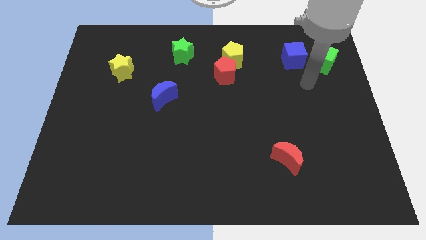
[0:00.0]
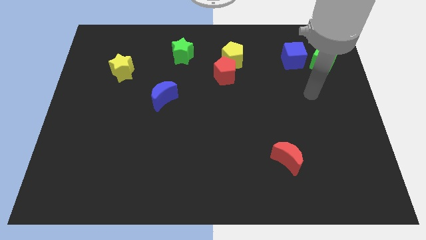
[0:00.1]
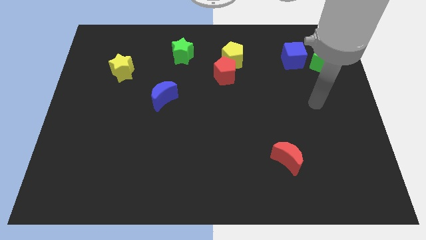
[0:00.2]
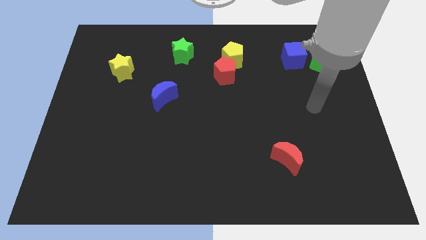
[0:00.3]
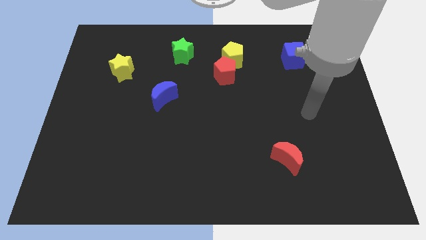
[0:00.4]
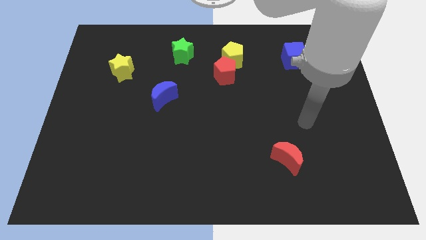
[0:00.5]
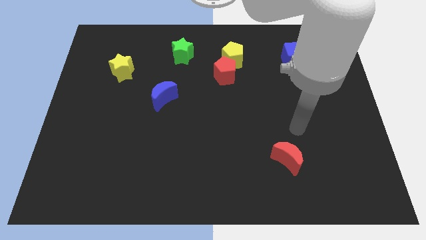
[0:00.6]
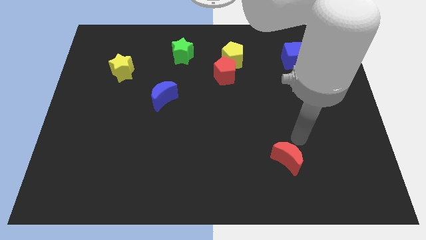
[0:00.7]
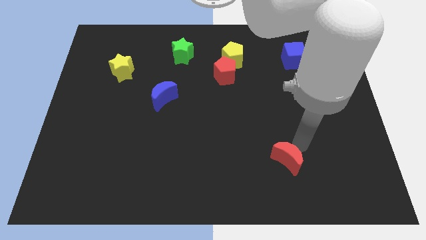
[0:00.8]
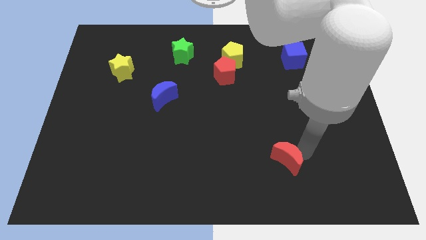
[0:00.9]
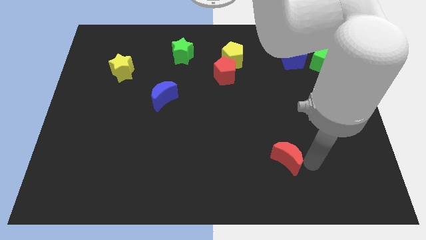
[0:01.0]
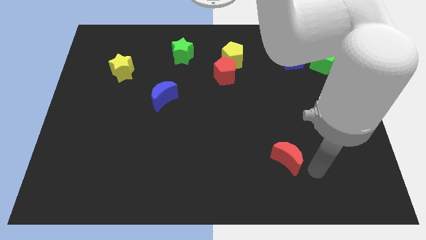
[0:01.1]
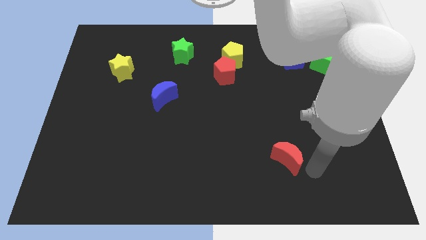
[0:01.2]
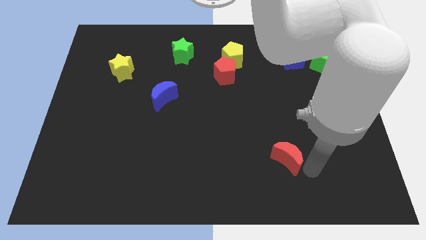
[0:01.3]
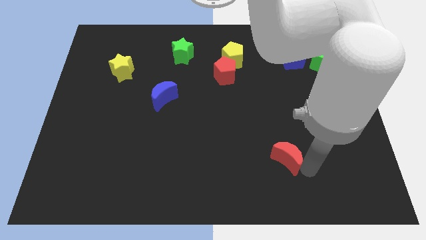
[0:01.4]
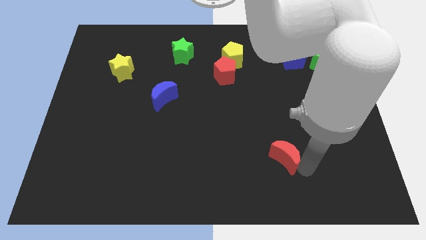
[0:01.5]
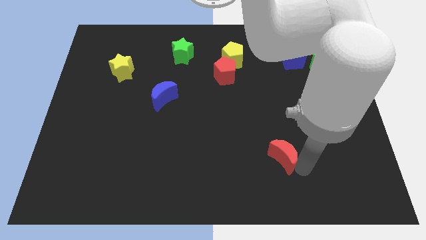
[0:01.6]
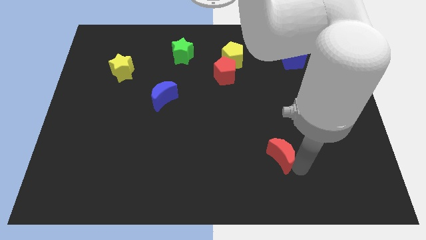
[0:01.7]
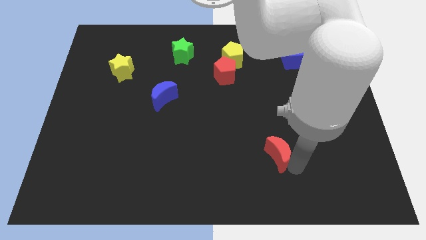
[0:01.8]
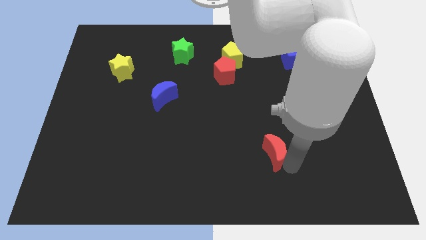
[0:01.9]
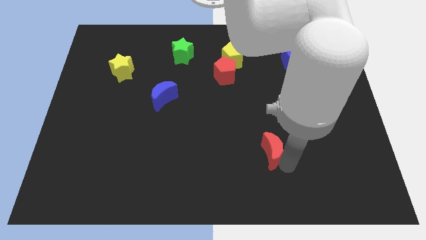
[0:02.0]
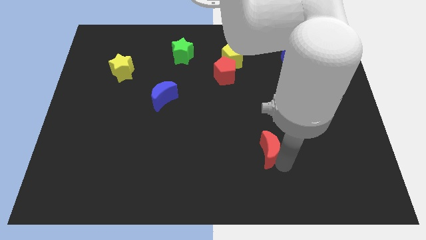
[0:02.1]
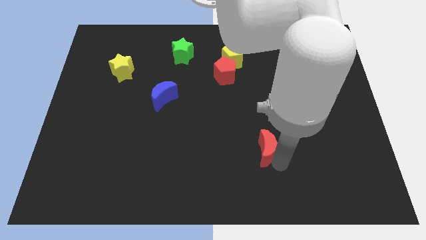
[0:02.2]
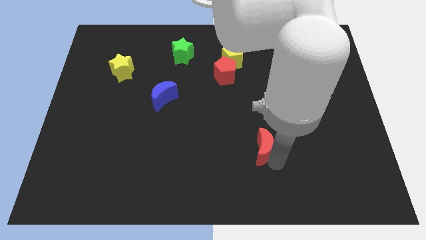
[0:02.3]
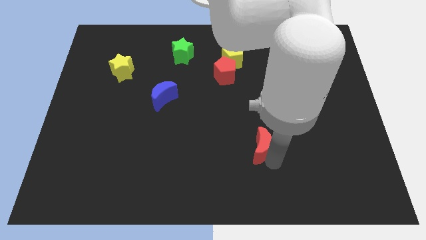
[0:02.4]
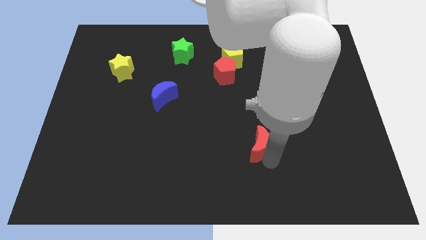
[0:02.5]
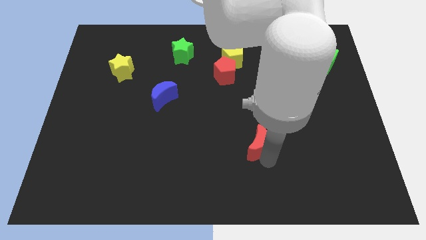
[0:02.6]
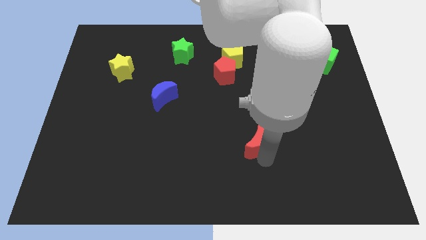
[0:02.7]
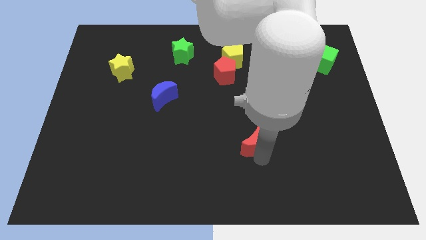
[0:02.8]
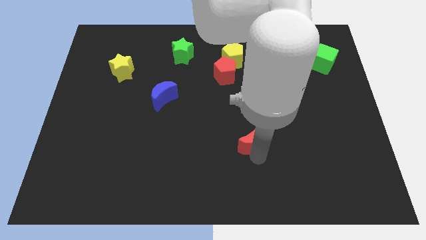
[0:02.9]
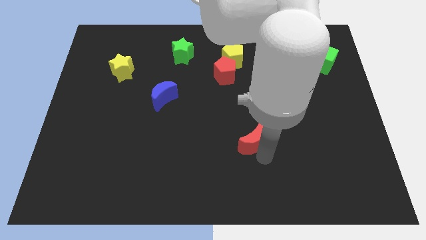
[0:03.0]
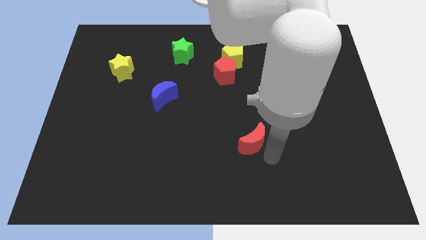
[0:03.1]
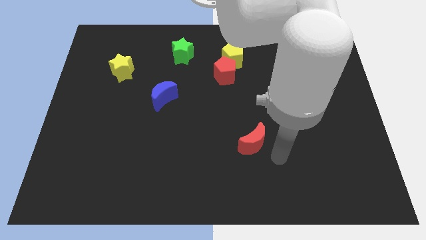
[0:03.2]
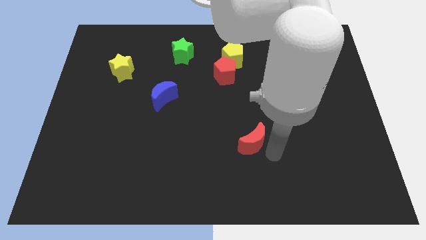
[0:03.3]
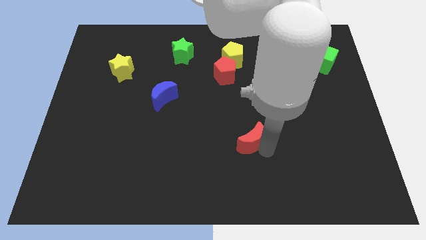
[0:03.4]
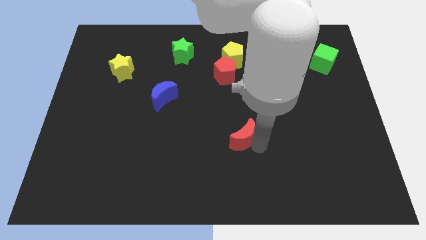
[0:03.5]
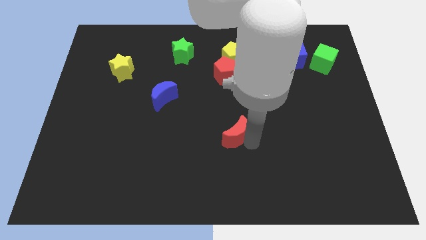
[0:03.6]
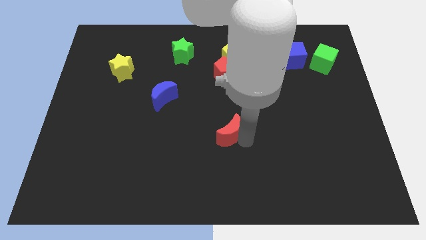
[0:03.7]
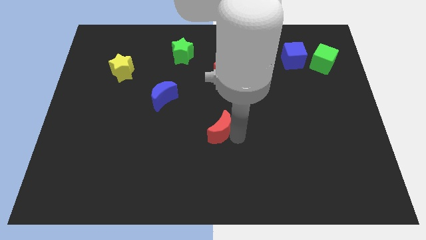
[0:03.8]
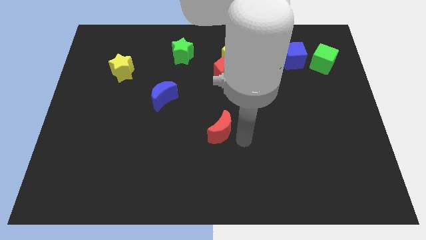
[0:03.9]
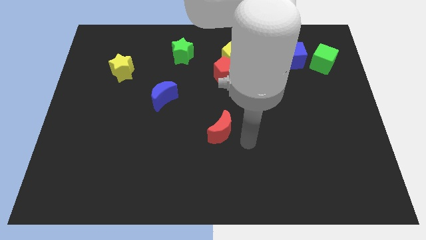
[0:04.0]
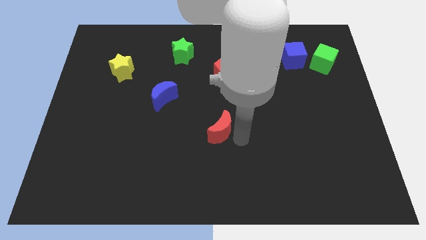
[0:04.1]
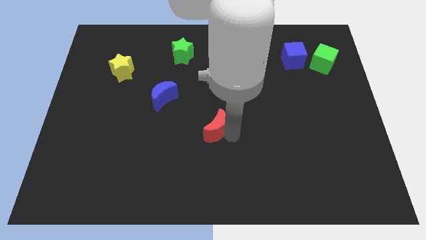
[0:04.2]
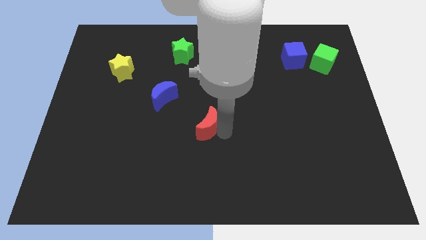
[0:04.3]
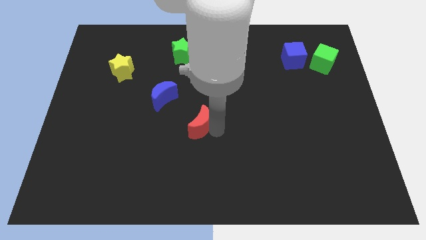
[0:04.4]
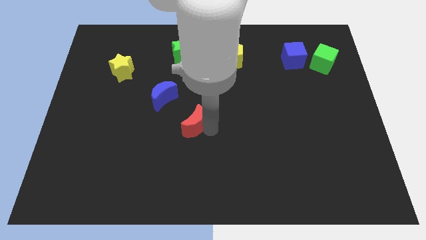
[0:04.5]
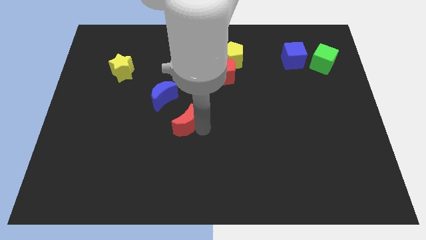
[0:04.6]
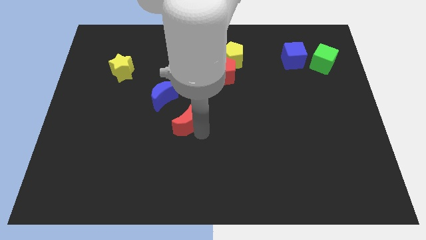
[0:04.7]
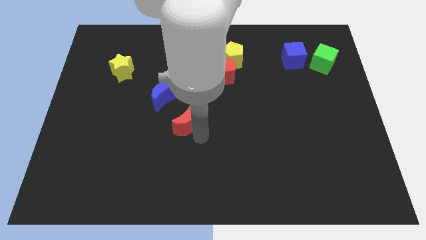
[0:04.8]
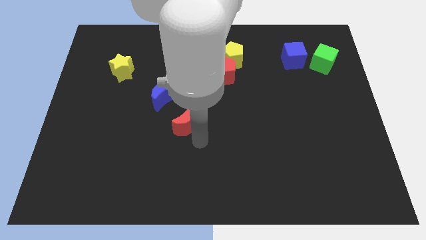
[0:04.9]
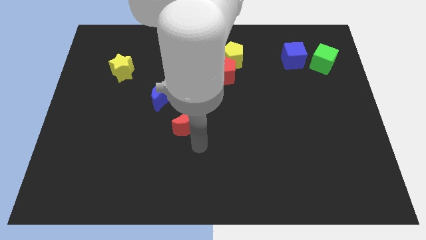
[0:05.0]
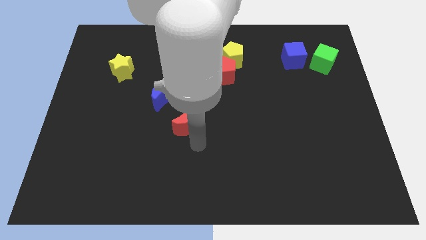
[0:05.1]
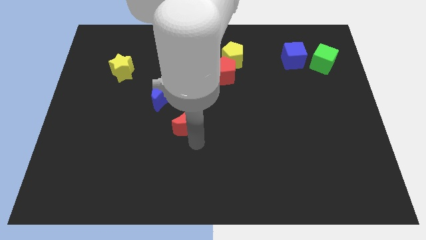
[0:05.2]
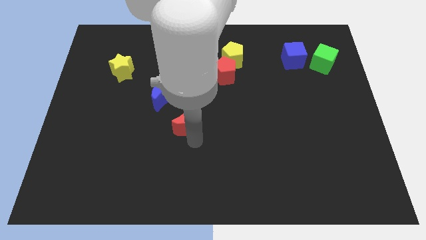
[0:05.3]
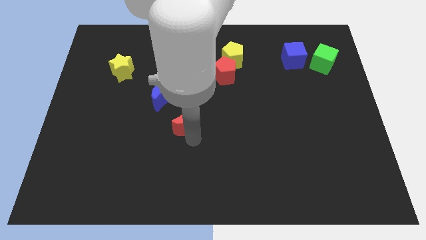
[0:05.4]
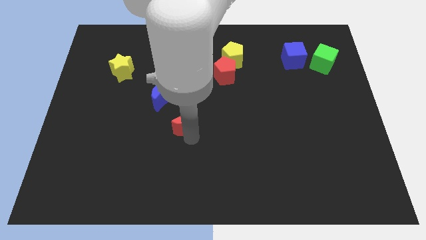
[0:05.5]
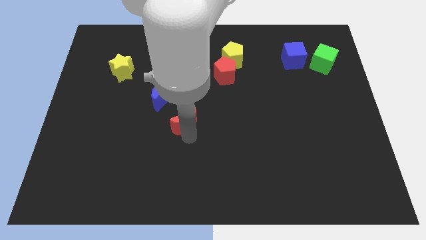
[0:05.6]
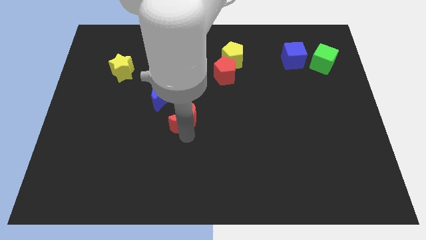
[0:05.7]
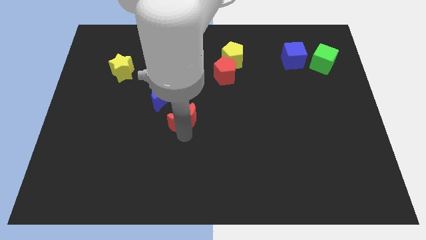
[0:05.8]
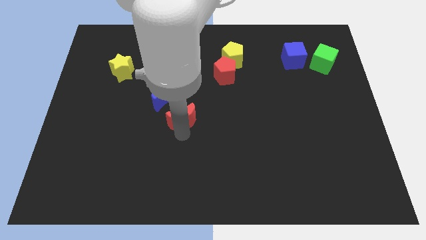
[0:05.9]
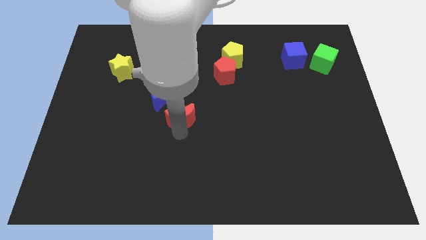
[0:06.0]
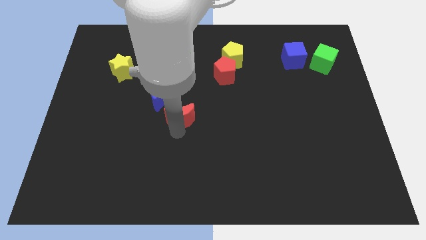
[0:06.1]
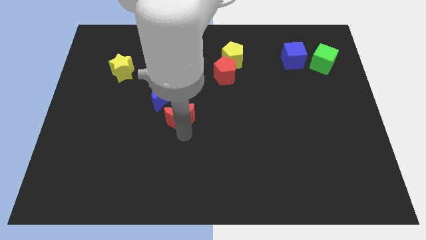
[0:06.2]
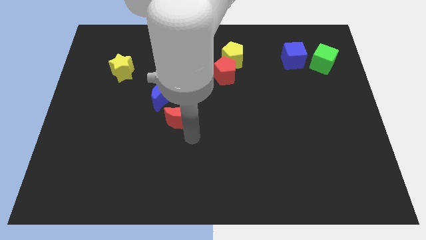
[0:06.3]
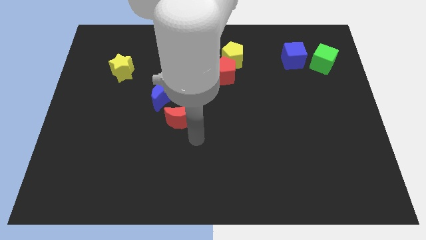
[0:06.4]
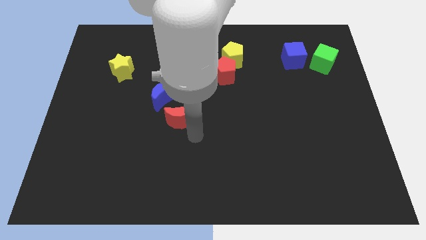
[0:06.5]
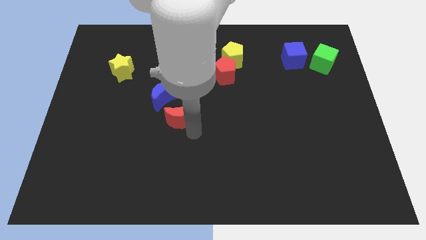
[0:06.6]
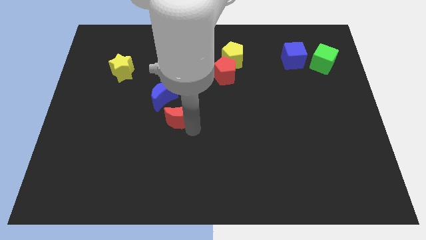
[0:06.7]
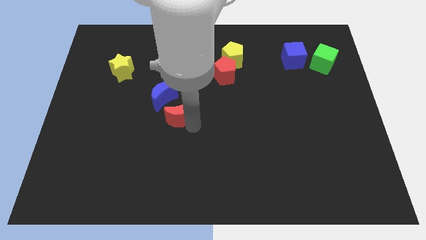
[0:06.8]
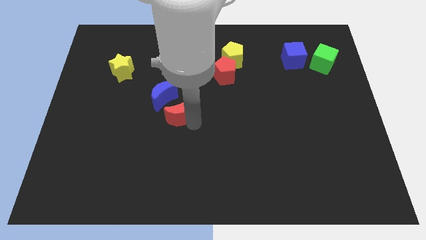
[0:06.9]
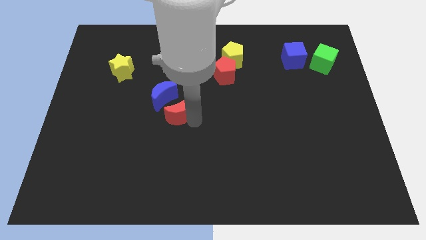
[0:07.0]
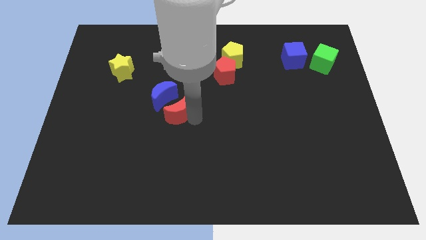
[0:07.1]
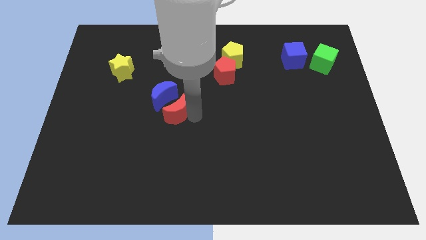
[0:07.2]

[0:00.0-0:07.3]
push the red moon close to the blue moon
